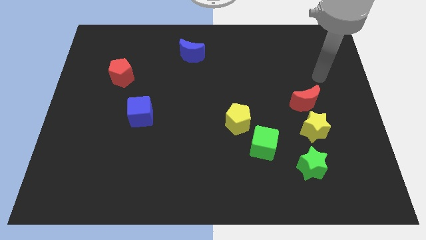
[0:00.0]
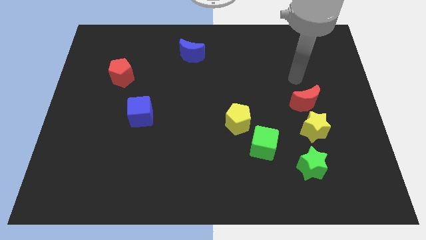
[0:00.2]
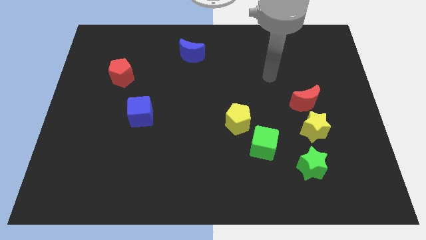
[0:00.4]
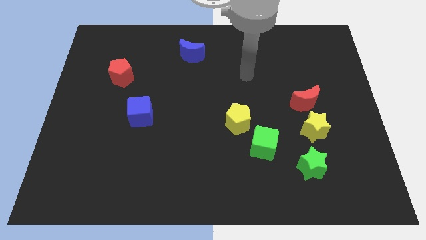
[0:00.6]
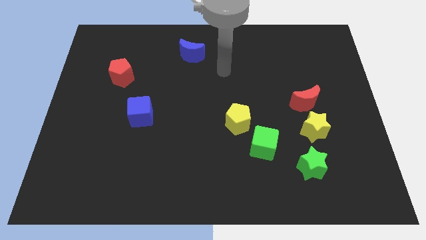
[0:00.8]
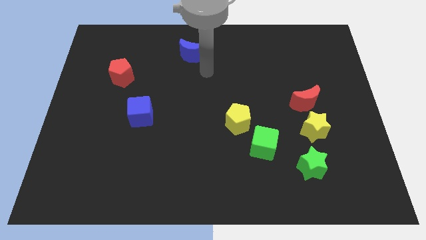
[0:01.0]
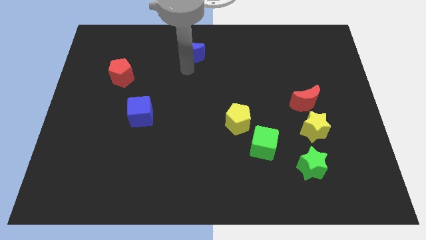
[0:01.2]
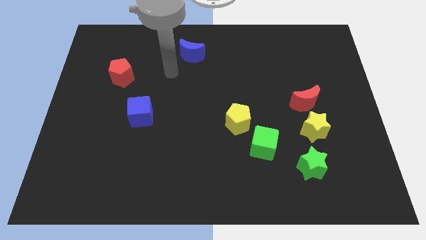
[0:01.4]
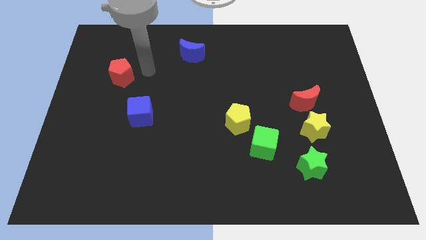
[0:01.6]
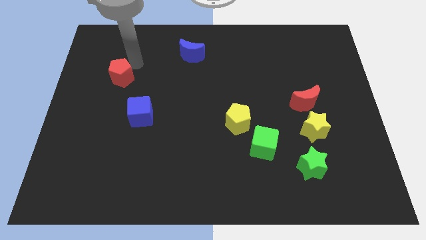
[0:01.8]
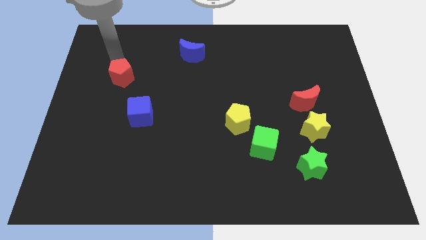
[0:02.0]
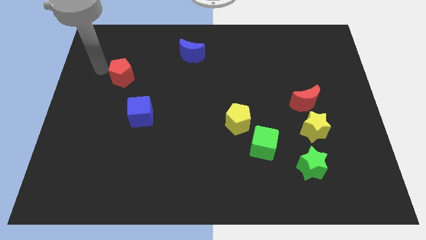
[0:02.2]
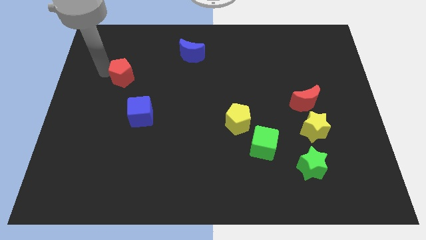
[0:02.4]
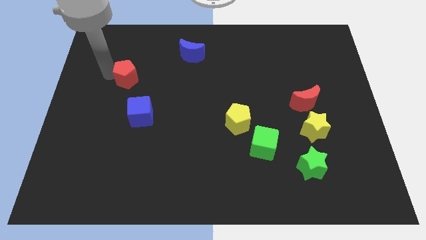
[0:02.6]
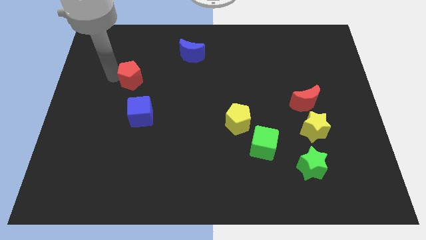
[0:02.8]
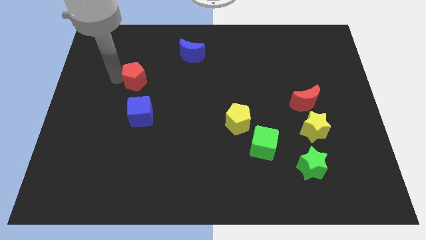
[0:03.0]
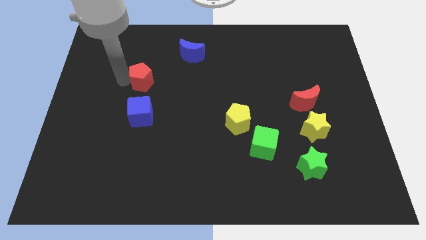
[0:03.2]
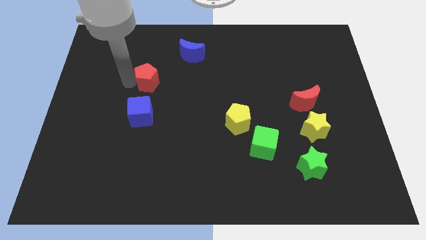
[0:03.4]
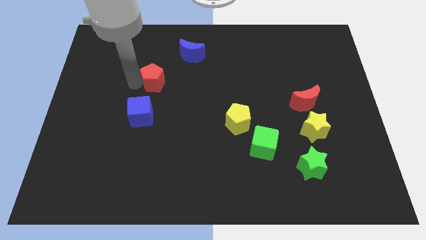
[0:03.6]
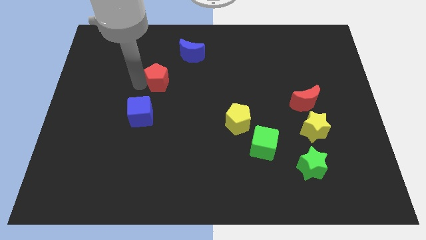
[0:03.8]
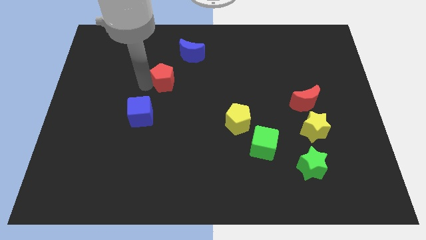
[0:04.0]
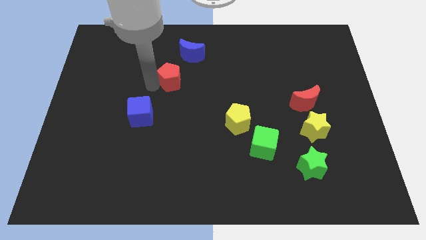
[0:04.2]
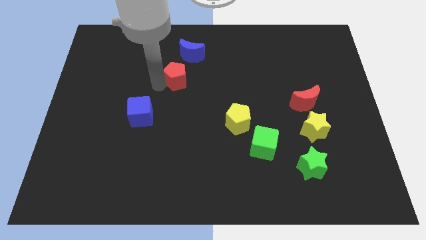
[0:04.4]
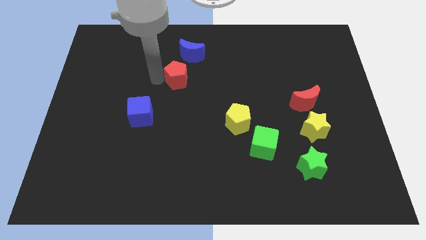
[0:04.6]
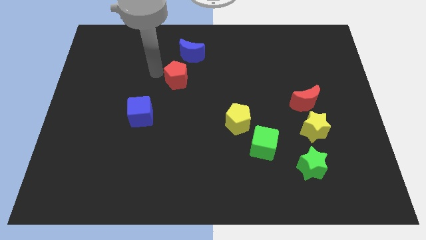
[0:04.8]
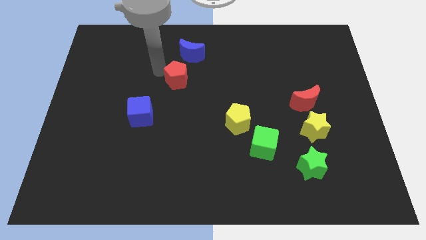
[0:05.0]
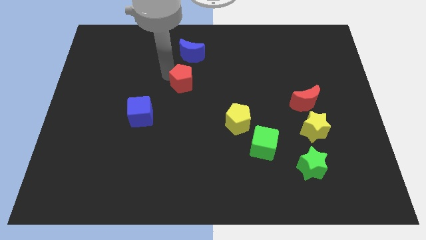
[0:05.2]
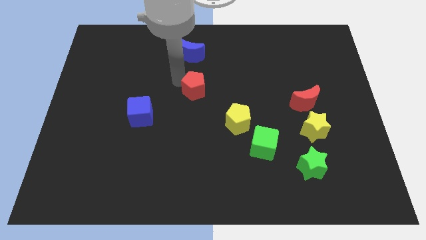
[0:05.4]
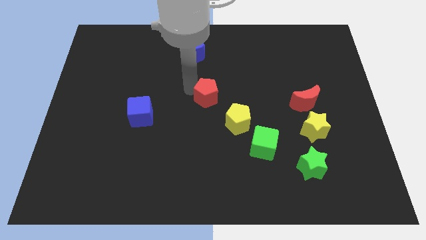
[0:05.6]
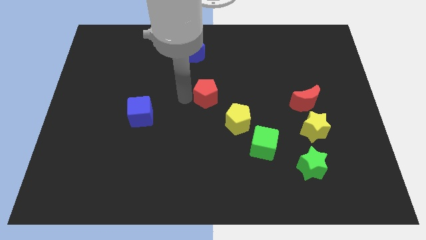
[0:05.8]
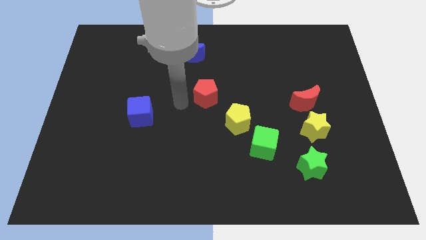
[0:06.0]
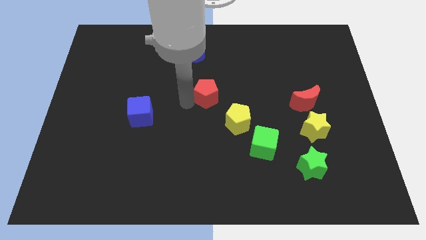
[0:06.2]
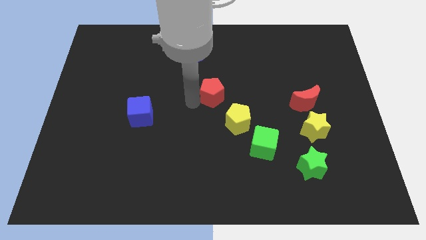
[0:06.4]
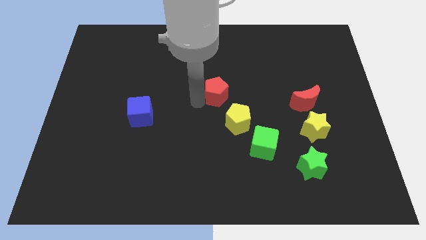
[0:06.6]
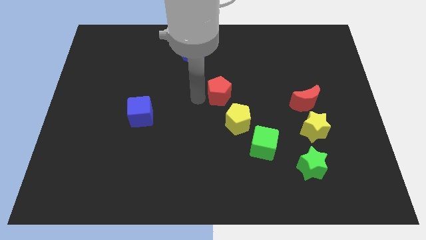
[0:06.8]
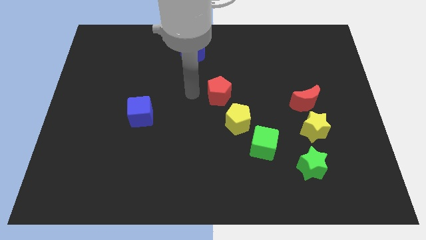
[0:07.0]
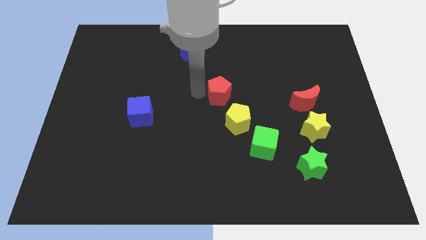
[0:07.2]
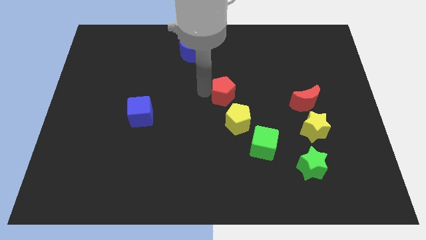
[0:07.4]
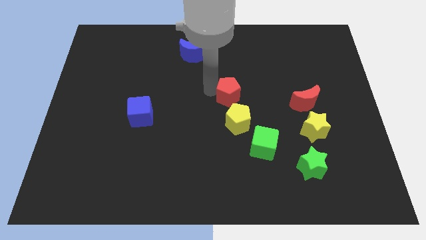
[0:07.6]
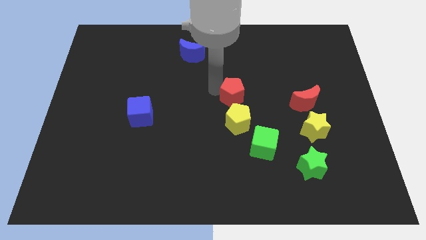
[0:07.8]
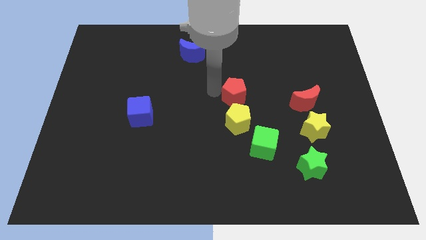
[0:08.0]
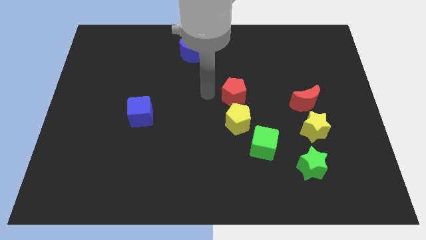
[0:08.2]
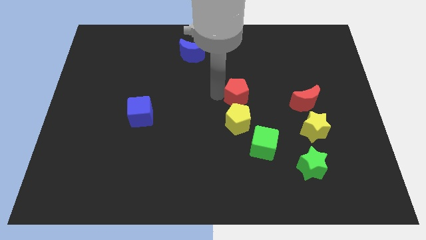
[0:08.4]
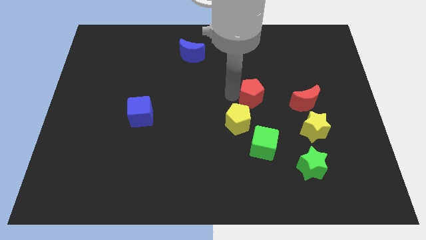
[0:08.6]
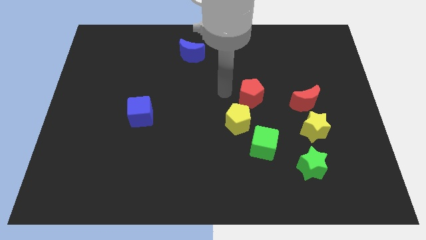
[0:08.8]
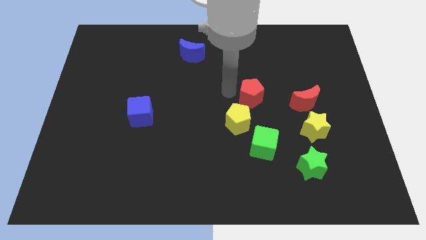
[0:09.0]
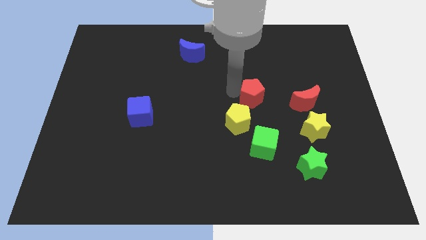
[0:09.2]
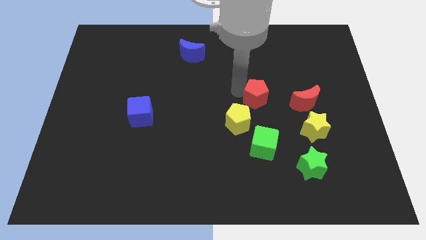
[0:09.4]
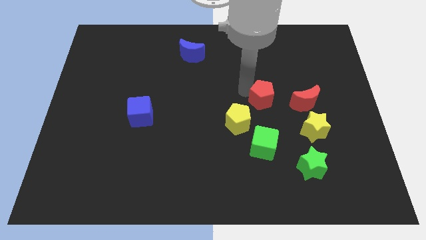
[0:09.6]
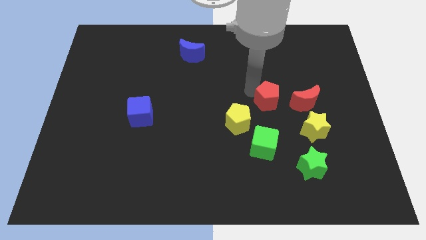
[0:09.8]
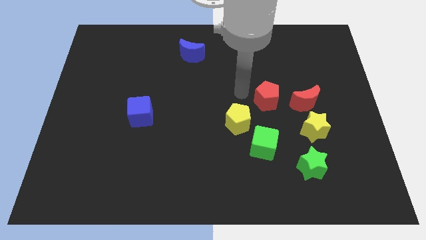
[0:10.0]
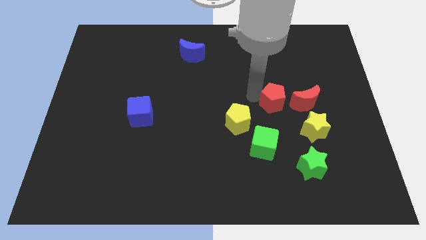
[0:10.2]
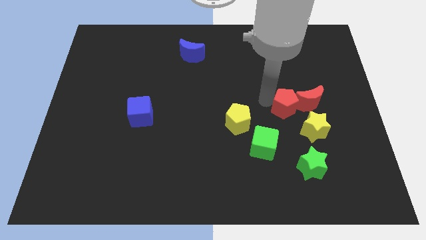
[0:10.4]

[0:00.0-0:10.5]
move the red pentagon close to the red moon

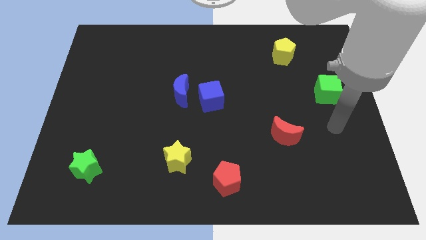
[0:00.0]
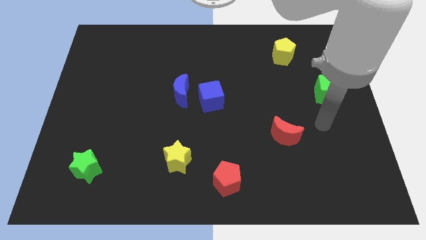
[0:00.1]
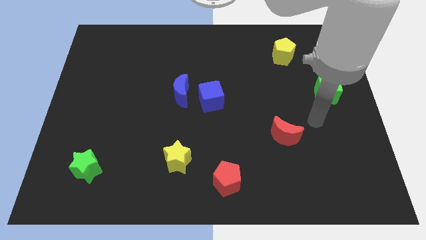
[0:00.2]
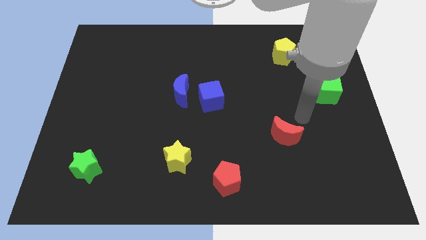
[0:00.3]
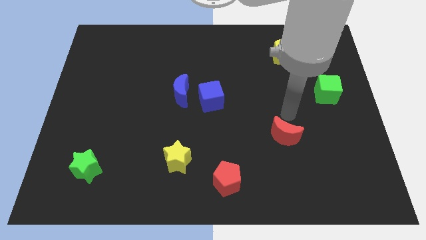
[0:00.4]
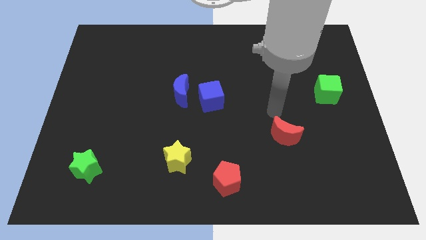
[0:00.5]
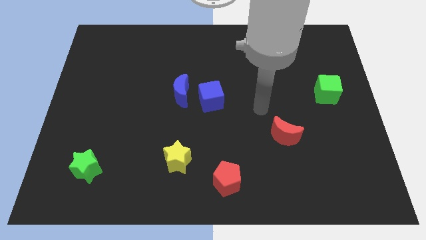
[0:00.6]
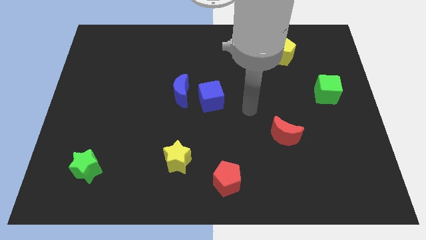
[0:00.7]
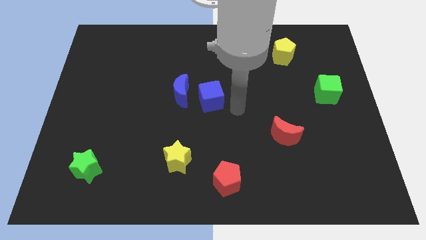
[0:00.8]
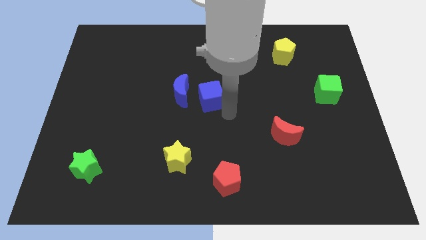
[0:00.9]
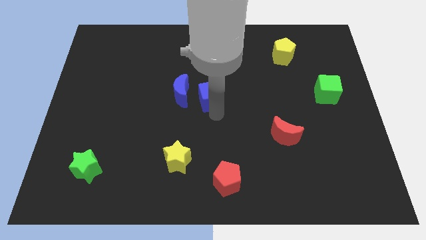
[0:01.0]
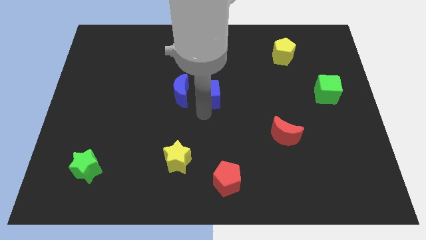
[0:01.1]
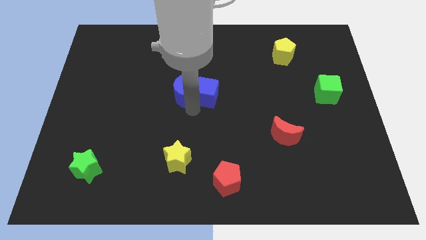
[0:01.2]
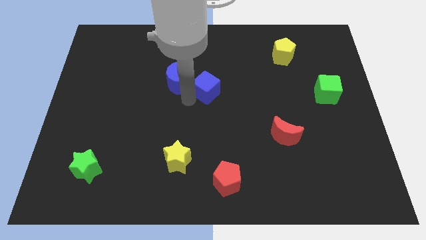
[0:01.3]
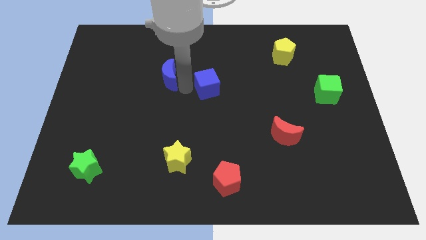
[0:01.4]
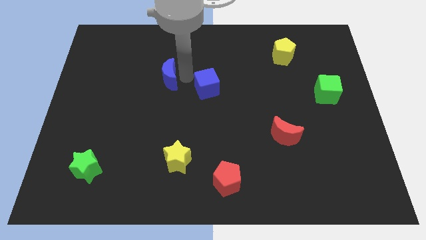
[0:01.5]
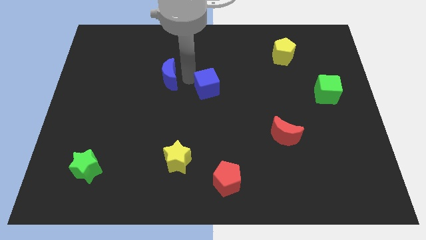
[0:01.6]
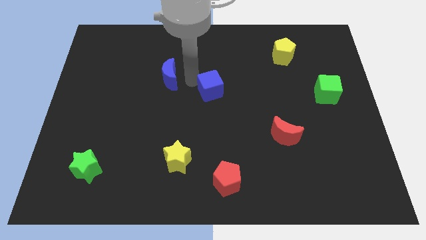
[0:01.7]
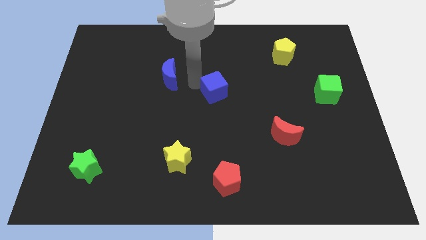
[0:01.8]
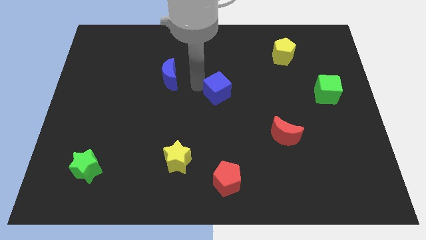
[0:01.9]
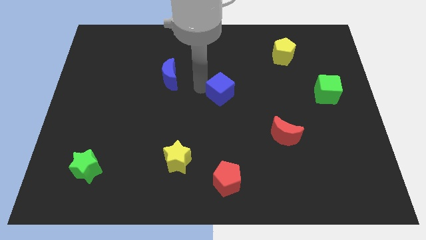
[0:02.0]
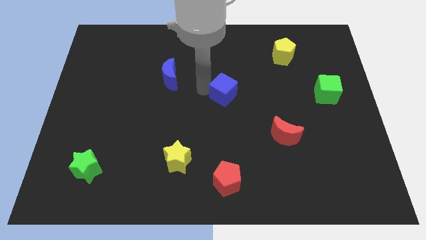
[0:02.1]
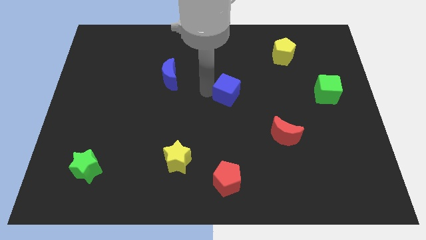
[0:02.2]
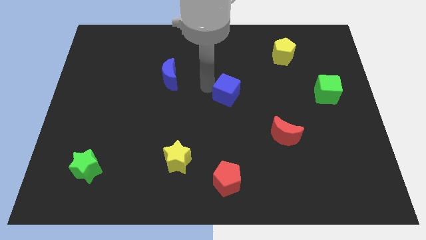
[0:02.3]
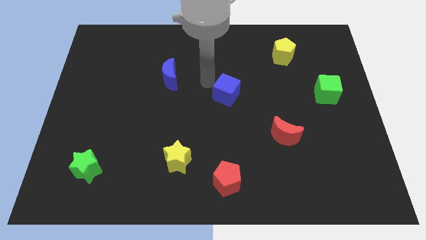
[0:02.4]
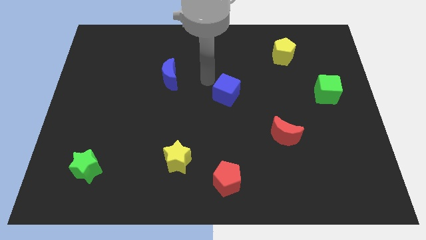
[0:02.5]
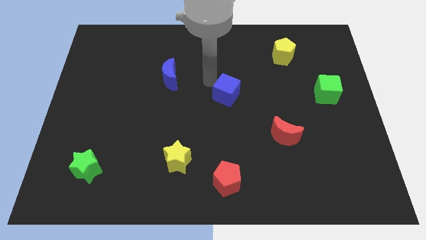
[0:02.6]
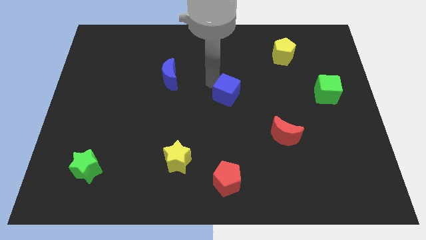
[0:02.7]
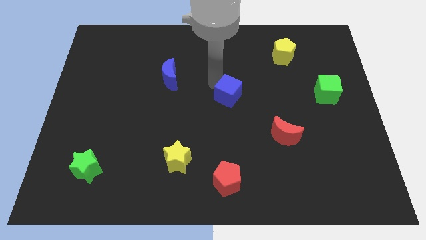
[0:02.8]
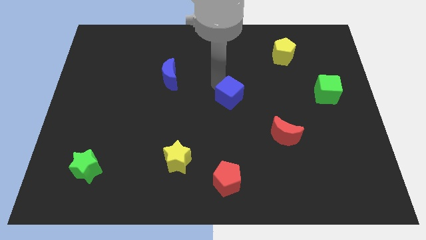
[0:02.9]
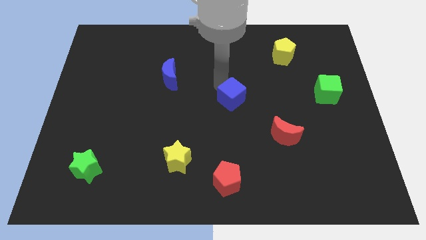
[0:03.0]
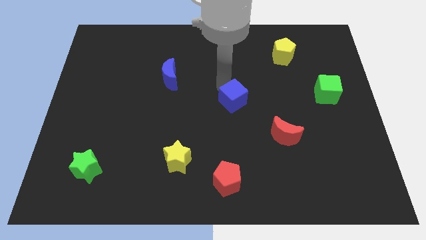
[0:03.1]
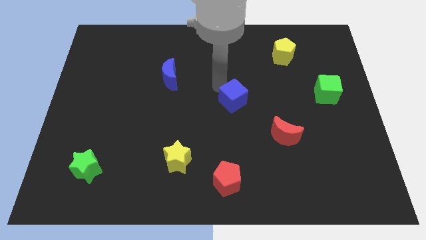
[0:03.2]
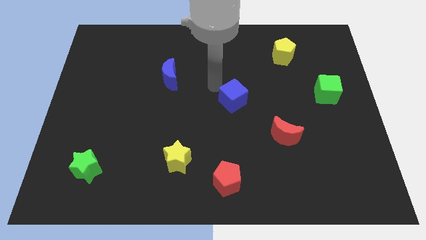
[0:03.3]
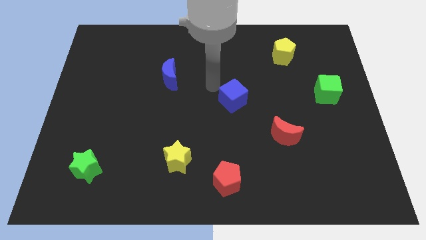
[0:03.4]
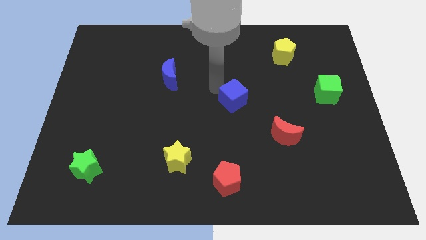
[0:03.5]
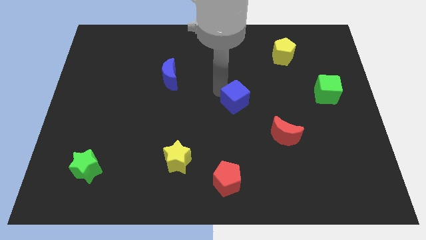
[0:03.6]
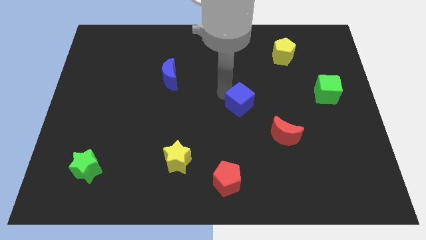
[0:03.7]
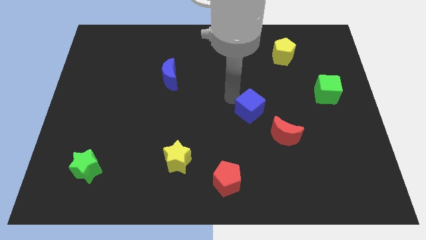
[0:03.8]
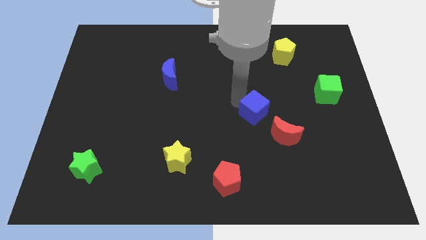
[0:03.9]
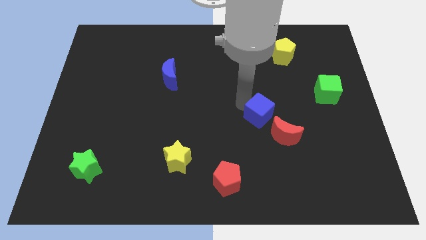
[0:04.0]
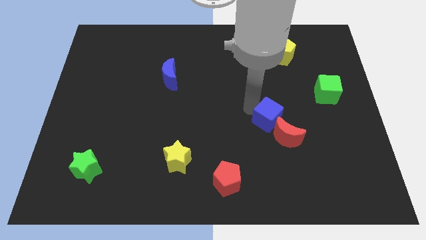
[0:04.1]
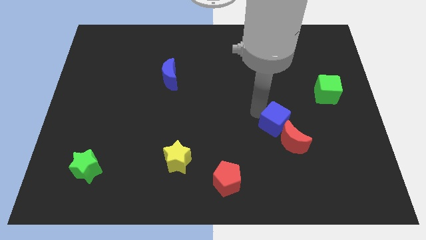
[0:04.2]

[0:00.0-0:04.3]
move the blue cube close to the red moon
